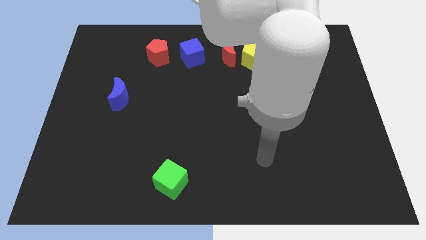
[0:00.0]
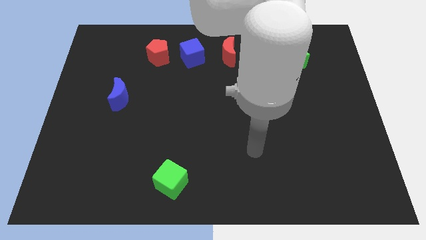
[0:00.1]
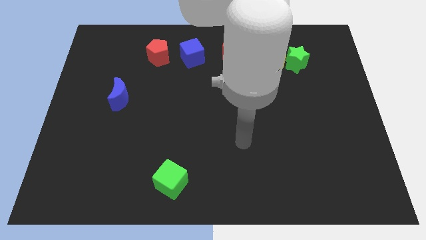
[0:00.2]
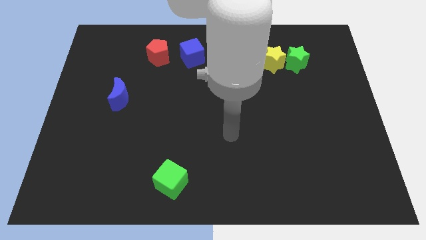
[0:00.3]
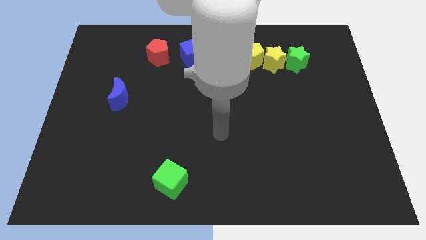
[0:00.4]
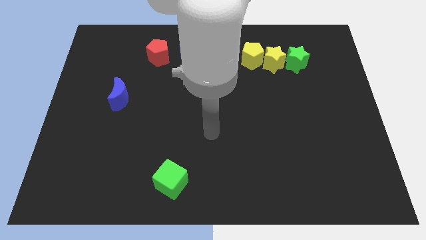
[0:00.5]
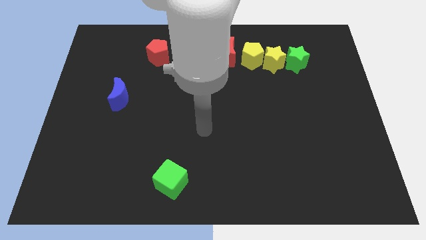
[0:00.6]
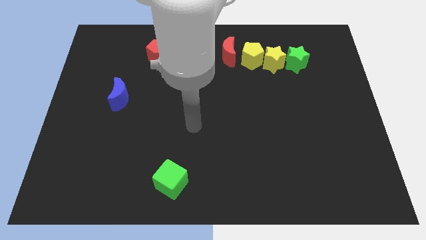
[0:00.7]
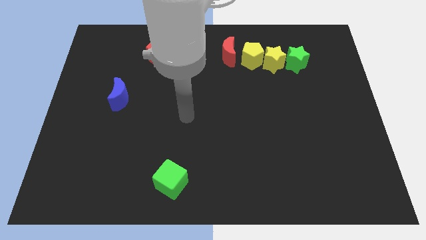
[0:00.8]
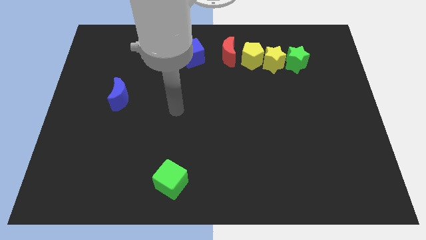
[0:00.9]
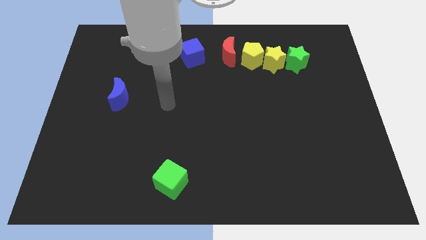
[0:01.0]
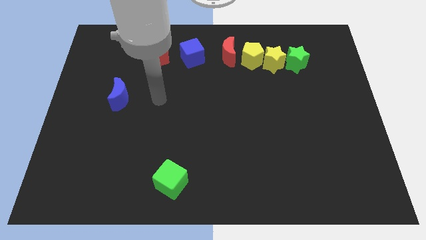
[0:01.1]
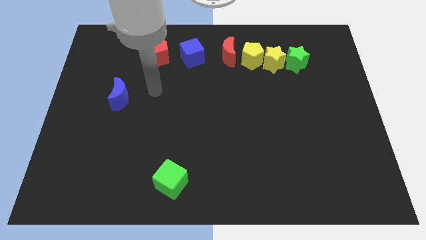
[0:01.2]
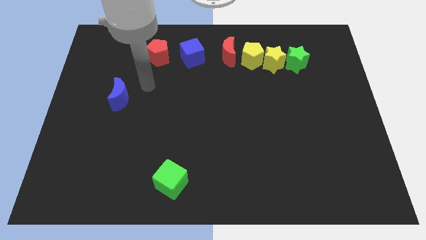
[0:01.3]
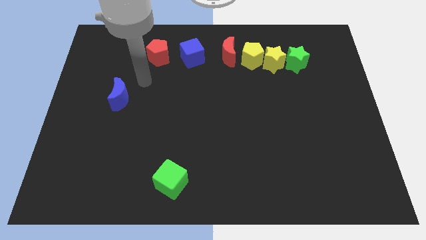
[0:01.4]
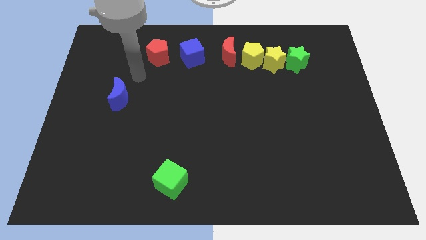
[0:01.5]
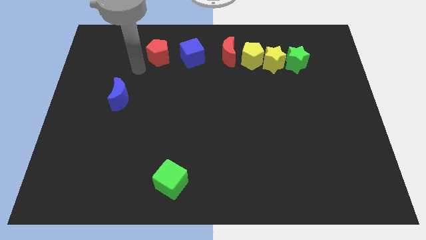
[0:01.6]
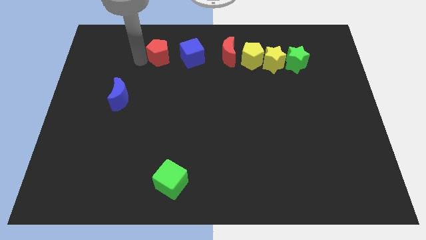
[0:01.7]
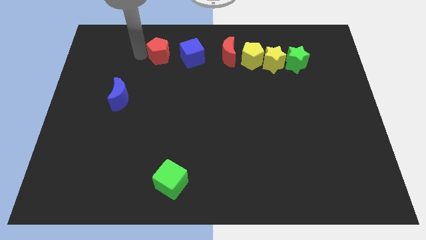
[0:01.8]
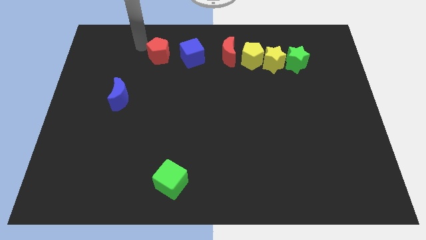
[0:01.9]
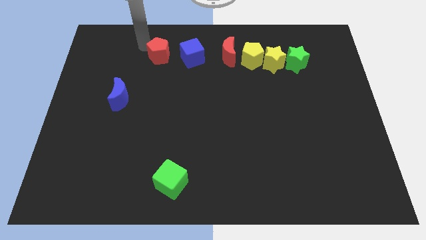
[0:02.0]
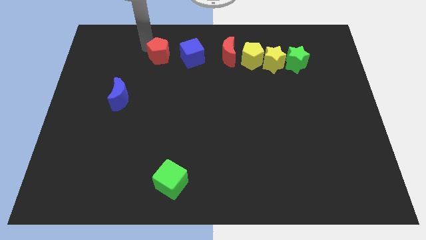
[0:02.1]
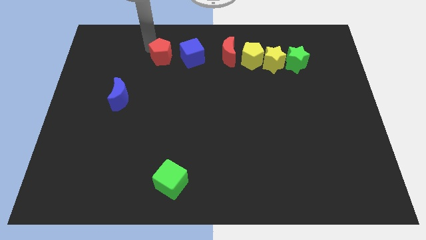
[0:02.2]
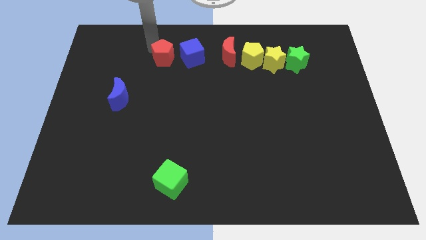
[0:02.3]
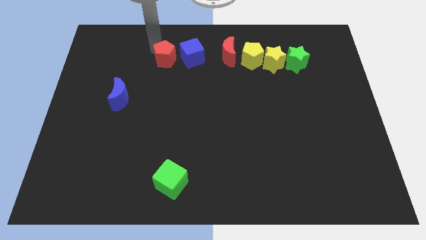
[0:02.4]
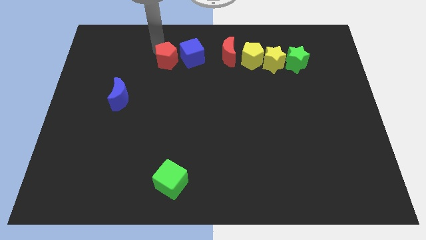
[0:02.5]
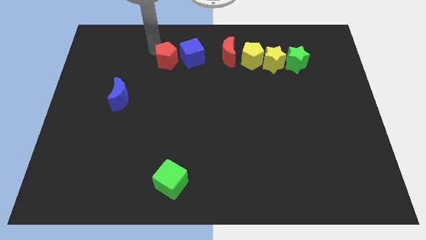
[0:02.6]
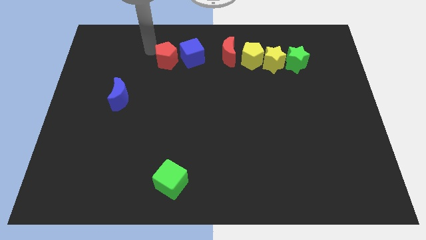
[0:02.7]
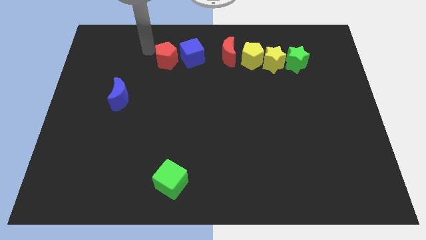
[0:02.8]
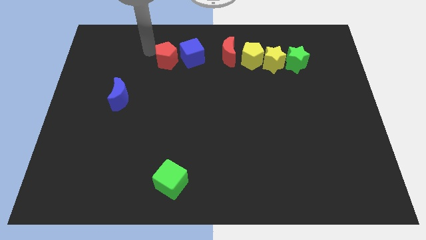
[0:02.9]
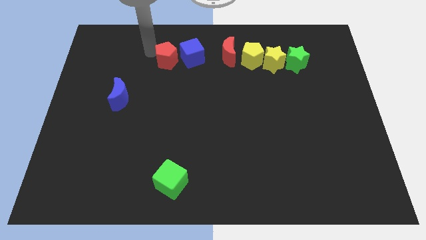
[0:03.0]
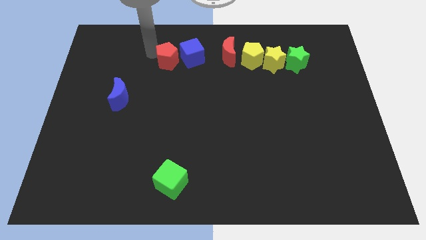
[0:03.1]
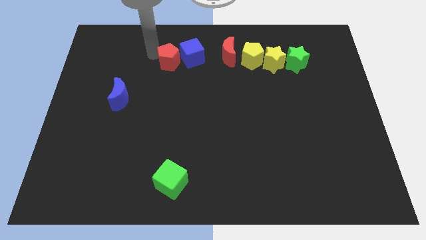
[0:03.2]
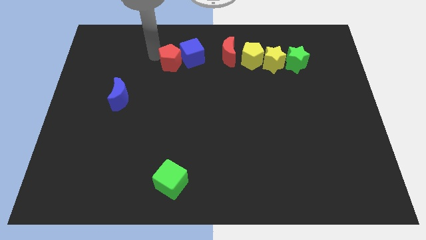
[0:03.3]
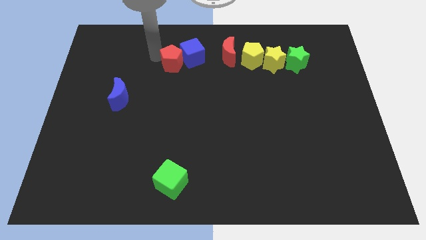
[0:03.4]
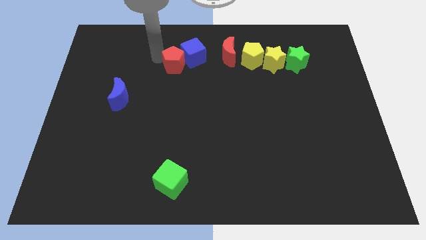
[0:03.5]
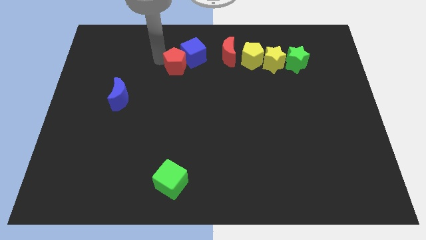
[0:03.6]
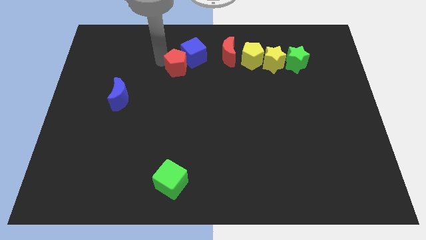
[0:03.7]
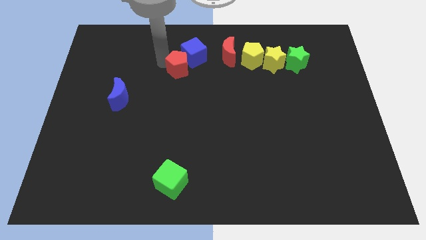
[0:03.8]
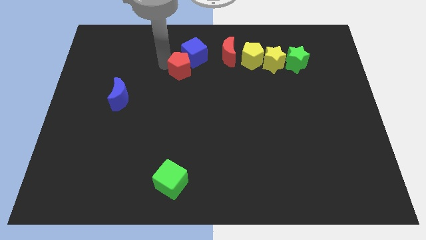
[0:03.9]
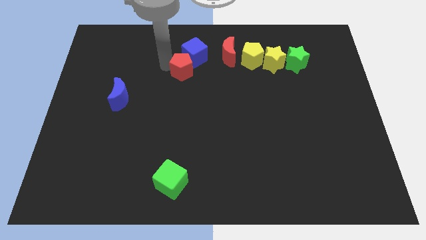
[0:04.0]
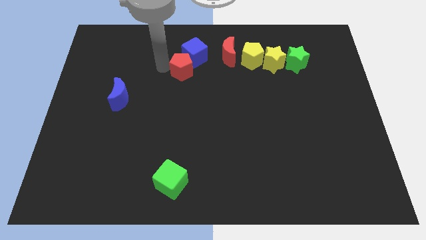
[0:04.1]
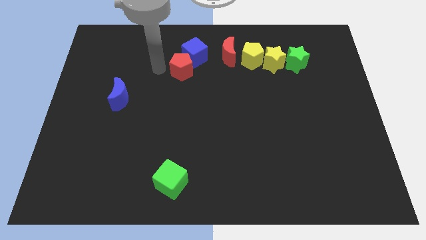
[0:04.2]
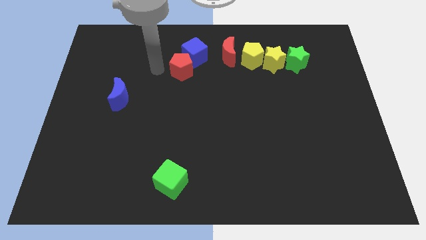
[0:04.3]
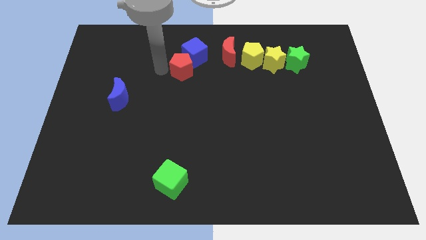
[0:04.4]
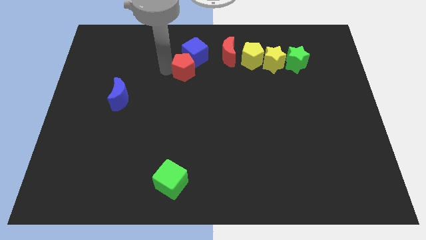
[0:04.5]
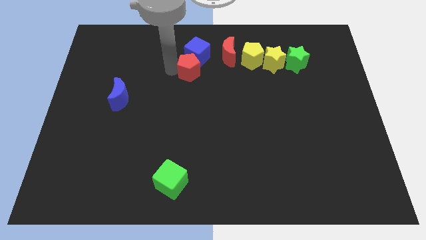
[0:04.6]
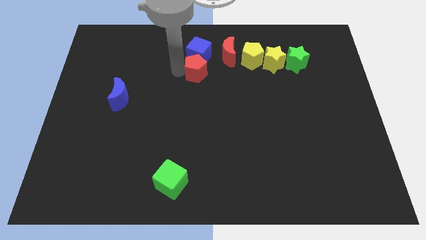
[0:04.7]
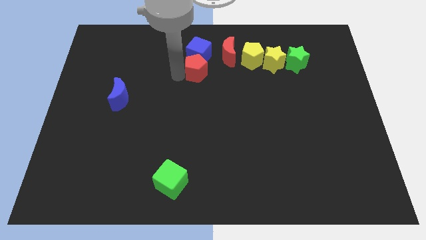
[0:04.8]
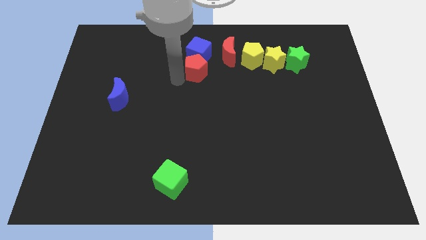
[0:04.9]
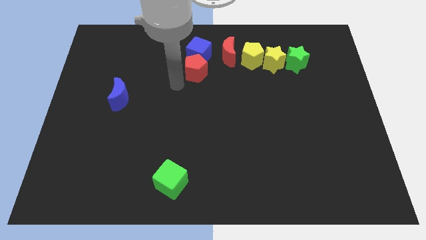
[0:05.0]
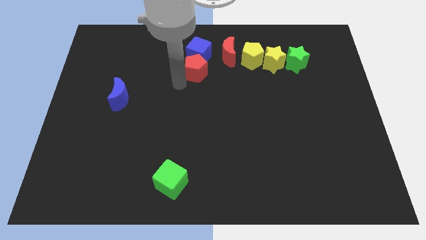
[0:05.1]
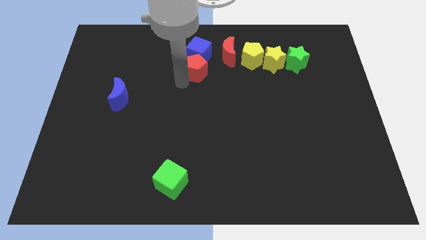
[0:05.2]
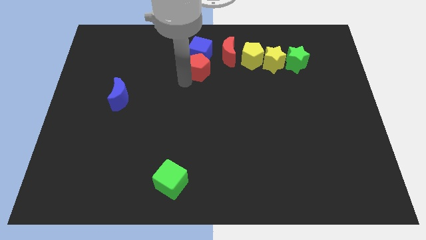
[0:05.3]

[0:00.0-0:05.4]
push the red pentagon to the left side of the yellow pentagon

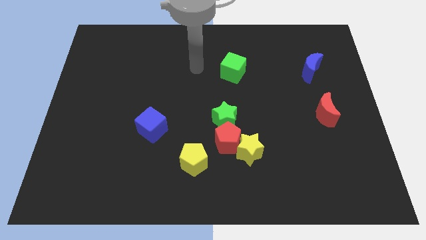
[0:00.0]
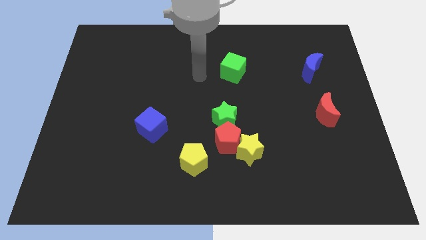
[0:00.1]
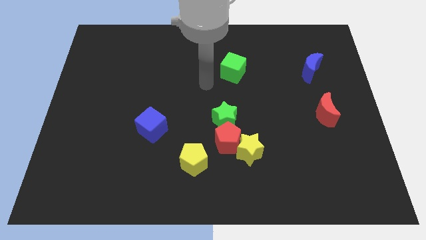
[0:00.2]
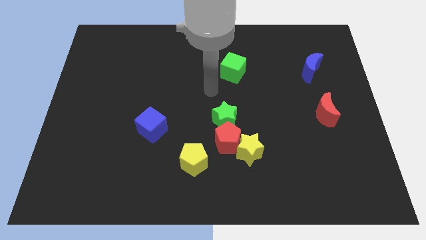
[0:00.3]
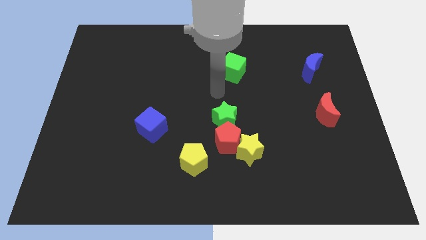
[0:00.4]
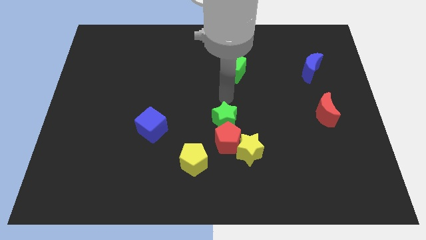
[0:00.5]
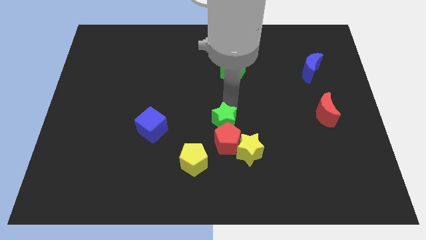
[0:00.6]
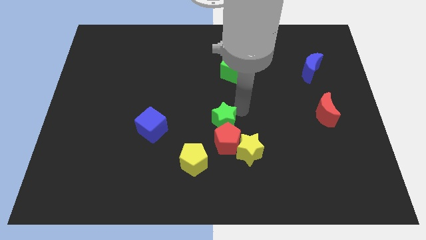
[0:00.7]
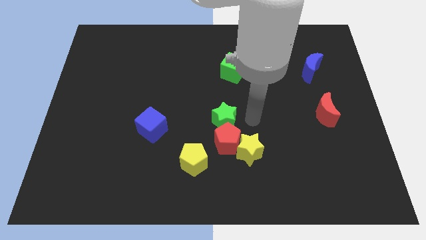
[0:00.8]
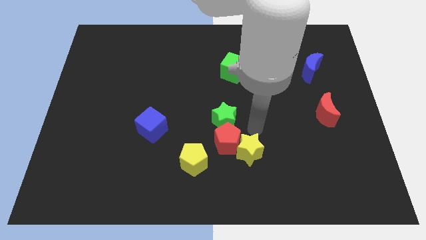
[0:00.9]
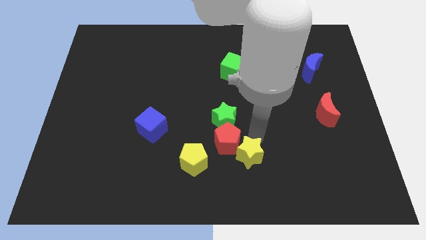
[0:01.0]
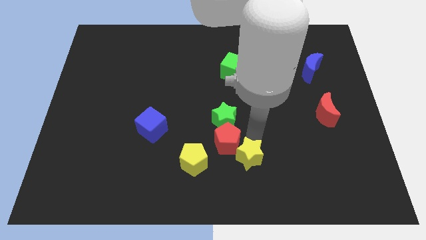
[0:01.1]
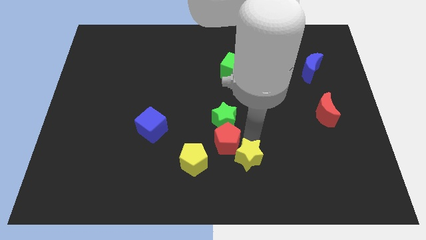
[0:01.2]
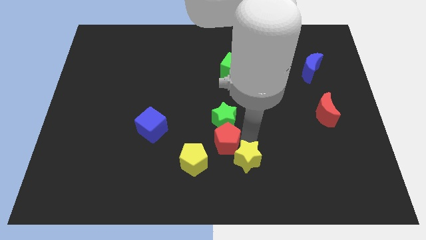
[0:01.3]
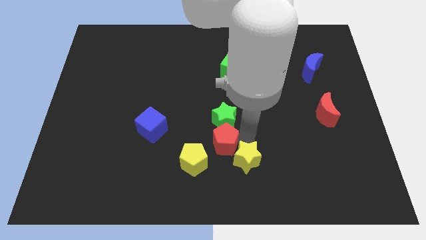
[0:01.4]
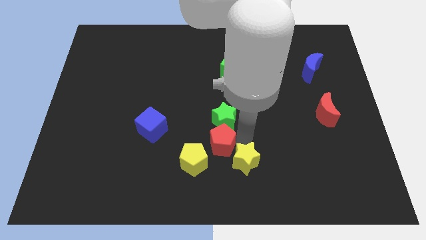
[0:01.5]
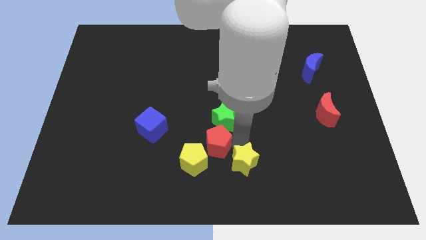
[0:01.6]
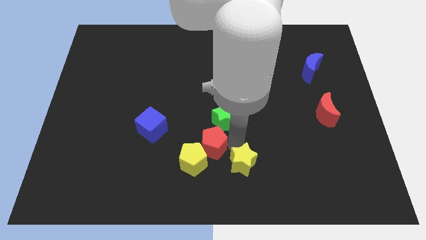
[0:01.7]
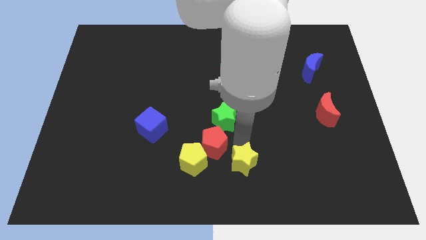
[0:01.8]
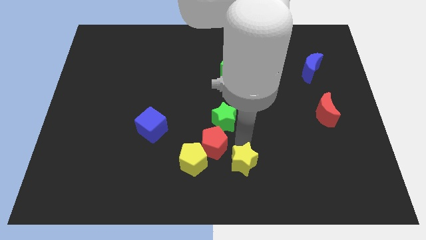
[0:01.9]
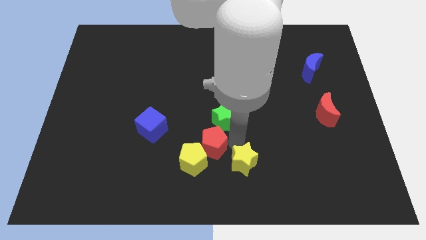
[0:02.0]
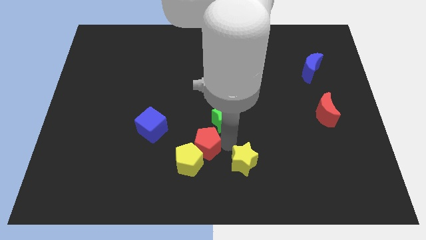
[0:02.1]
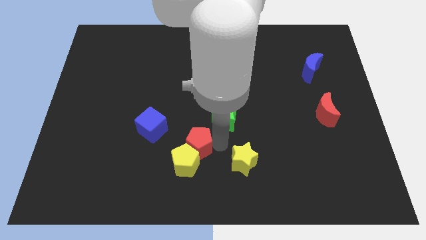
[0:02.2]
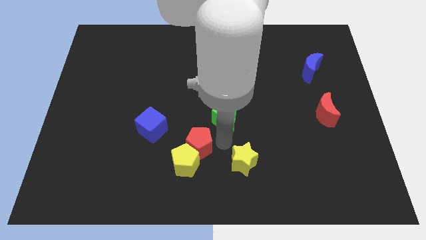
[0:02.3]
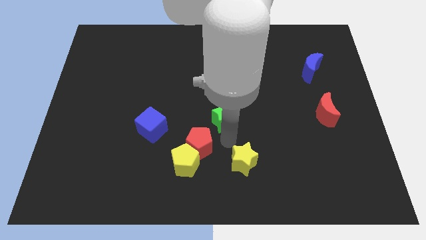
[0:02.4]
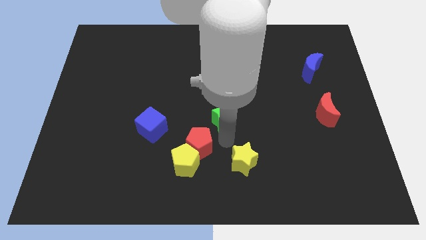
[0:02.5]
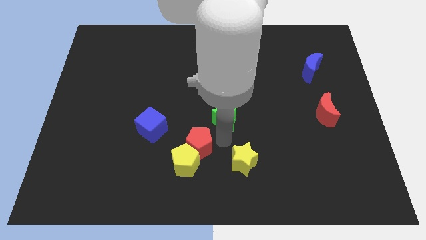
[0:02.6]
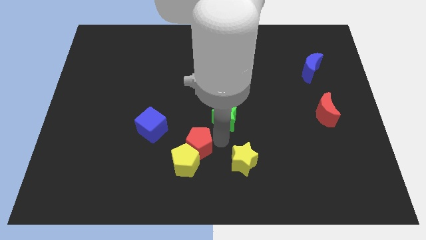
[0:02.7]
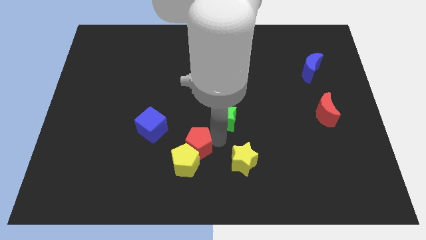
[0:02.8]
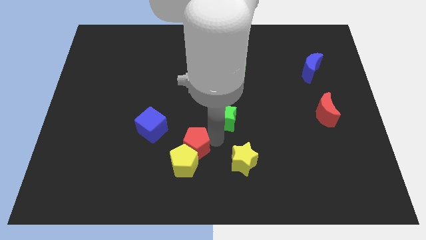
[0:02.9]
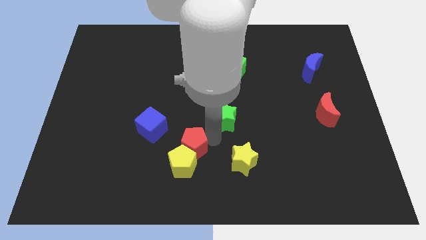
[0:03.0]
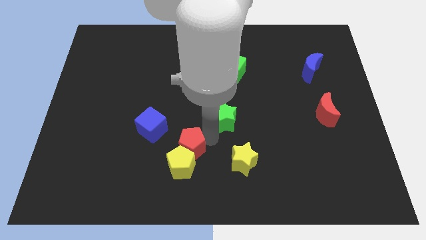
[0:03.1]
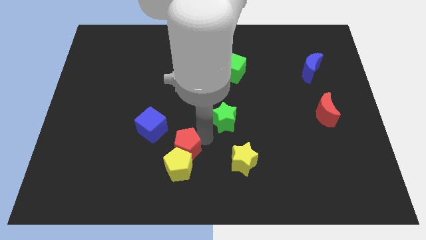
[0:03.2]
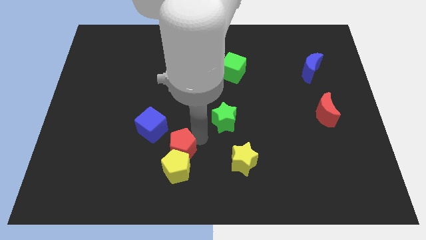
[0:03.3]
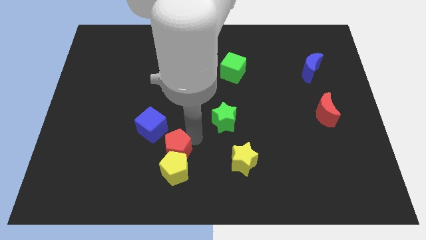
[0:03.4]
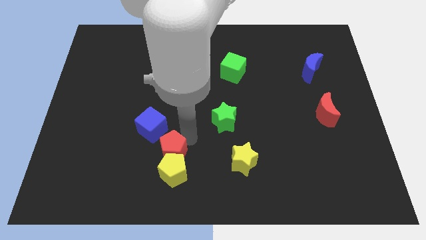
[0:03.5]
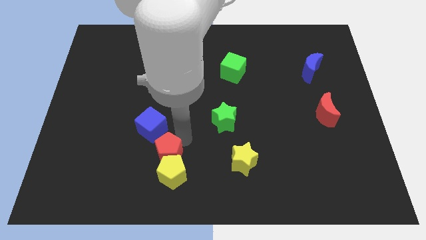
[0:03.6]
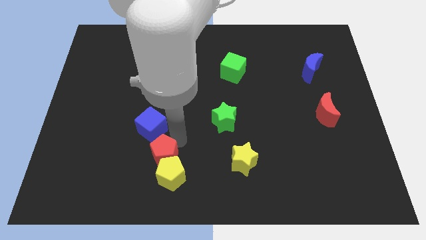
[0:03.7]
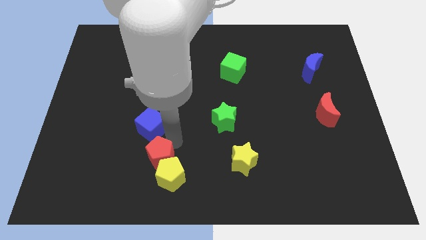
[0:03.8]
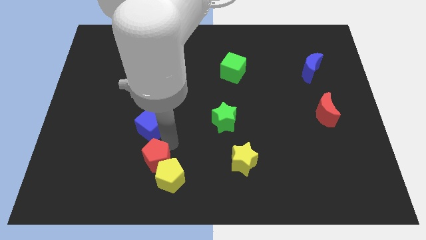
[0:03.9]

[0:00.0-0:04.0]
slide the red pentagon to the left of the yellow pentagon
